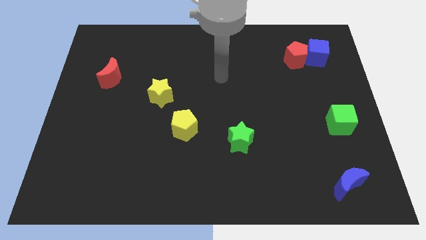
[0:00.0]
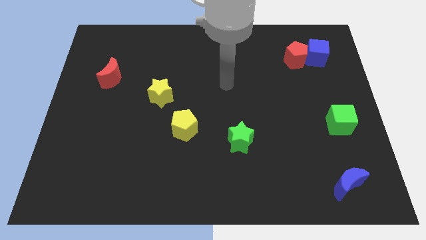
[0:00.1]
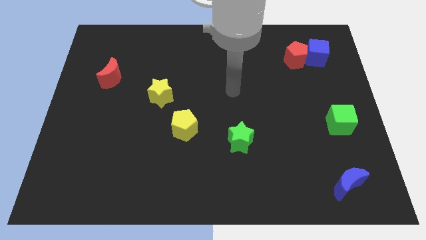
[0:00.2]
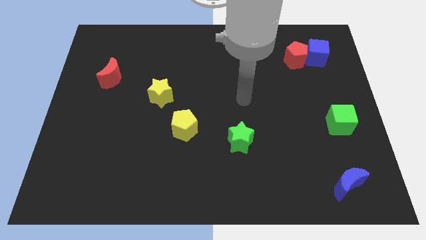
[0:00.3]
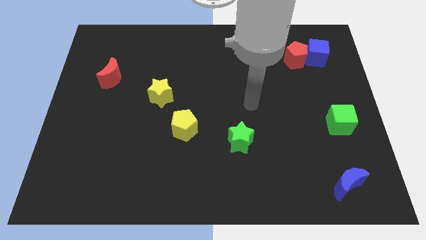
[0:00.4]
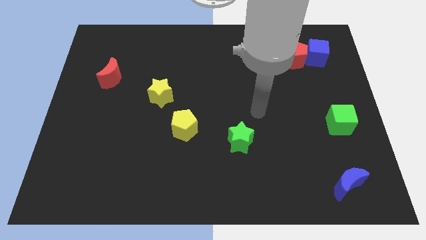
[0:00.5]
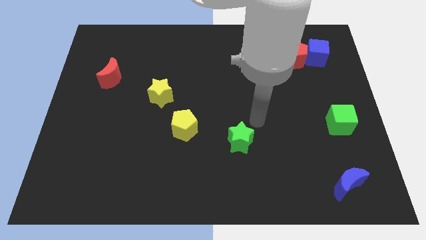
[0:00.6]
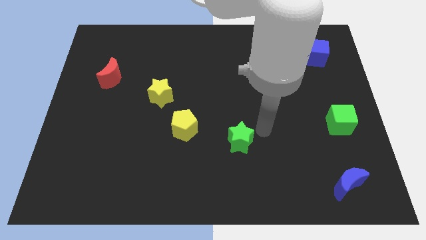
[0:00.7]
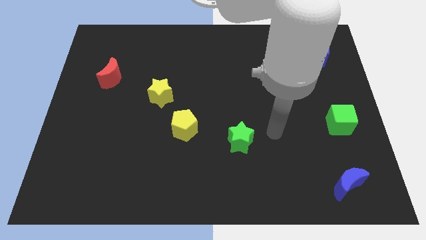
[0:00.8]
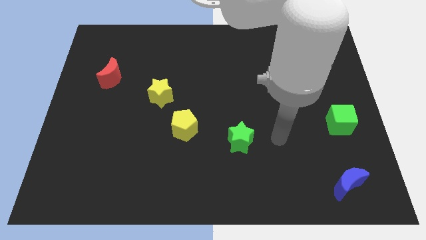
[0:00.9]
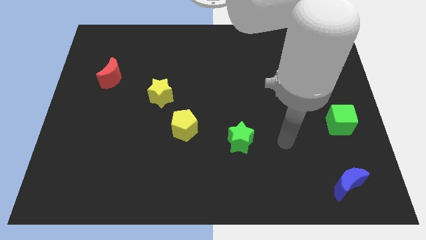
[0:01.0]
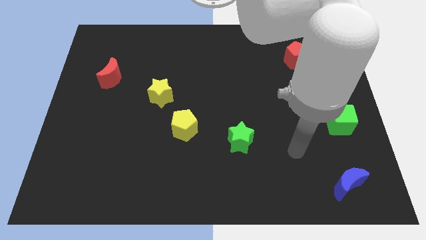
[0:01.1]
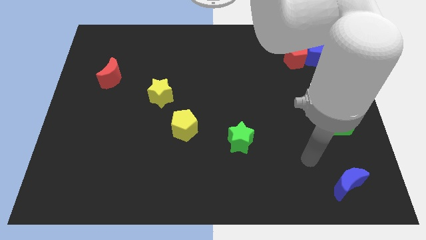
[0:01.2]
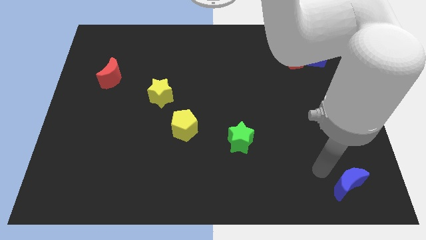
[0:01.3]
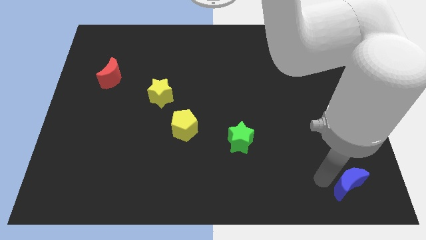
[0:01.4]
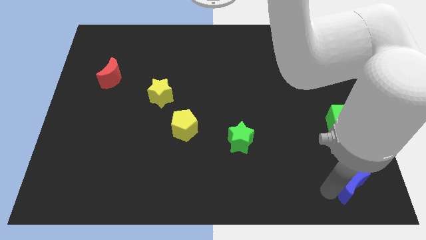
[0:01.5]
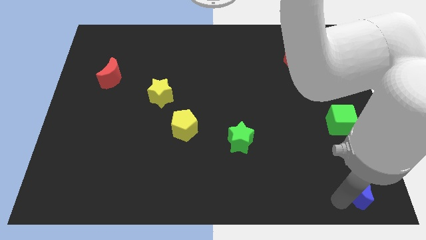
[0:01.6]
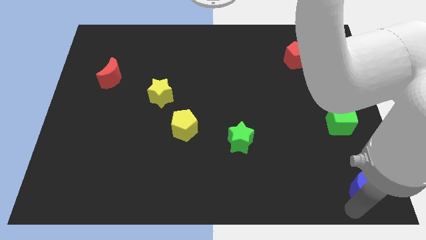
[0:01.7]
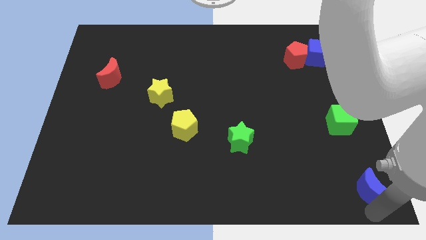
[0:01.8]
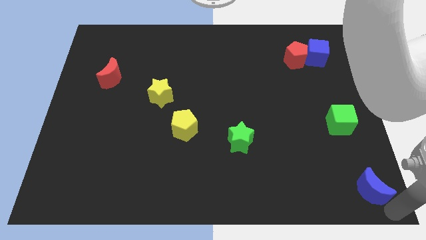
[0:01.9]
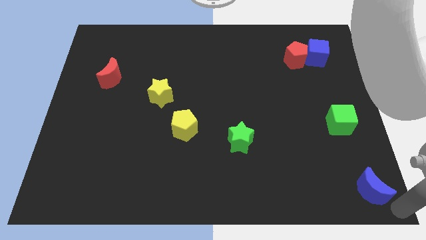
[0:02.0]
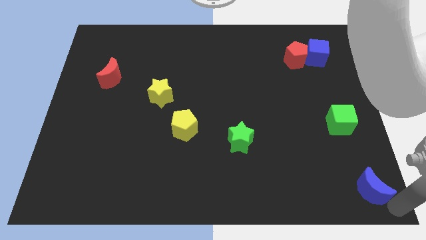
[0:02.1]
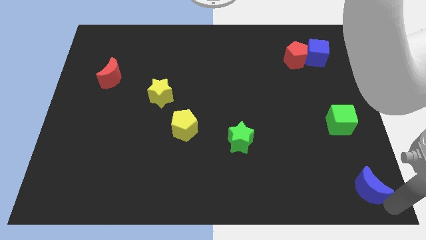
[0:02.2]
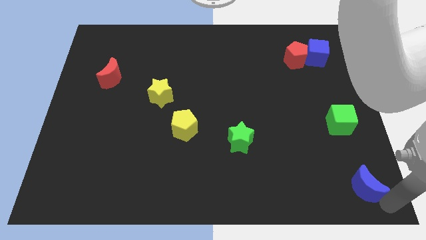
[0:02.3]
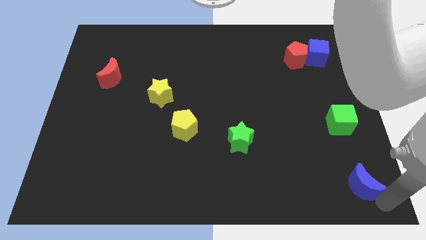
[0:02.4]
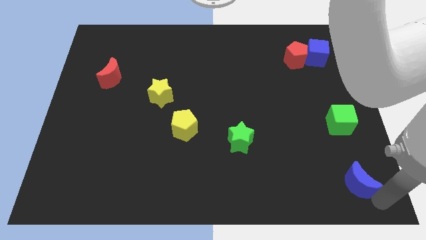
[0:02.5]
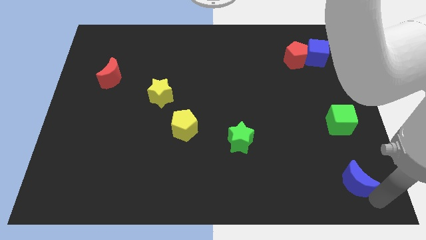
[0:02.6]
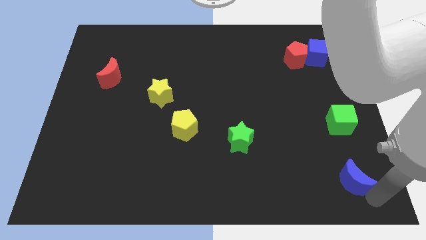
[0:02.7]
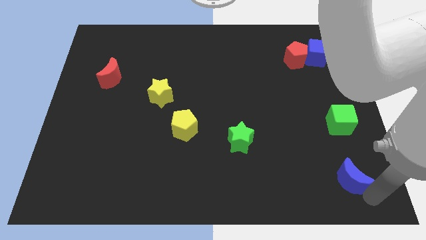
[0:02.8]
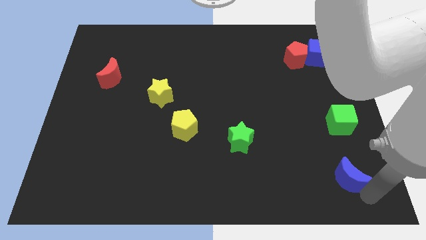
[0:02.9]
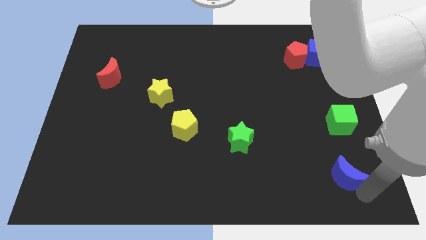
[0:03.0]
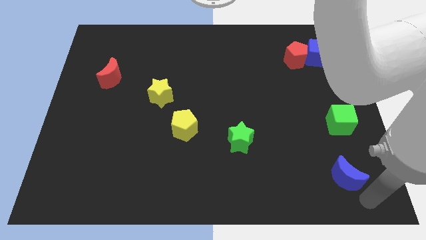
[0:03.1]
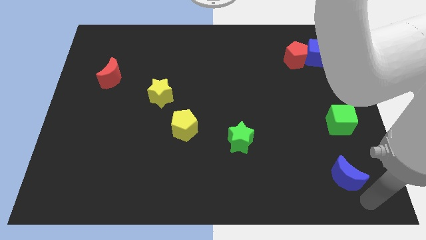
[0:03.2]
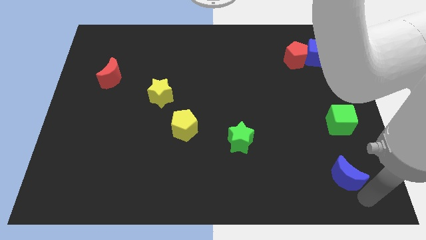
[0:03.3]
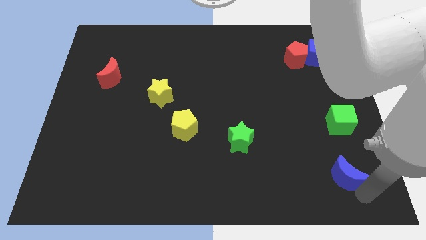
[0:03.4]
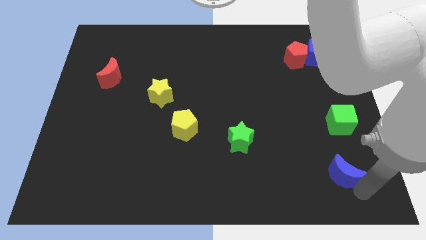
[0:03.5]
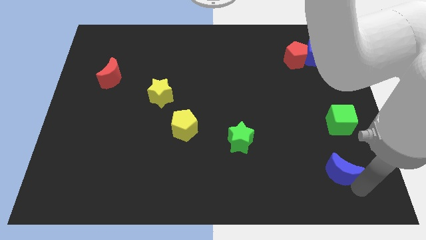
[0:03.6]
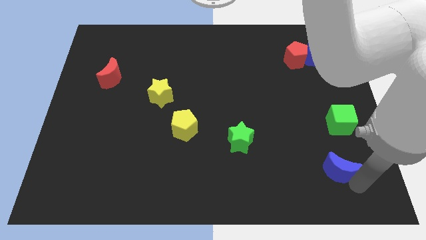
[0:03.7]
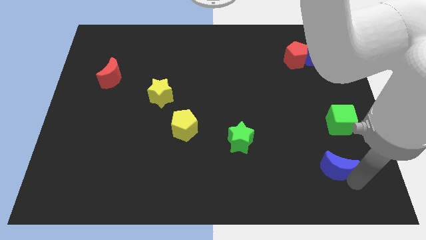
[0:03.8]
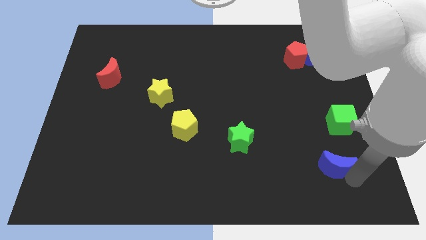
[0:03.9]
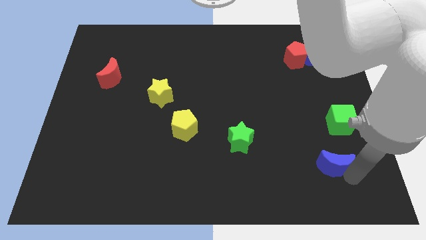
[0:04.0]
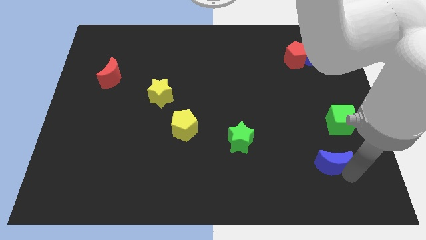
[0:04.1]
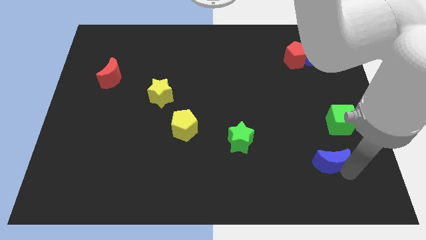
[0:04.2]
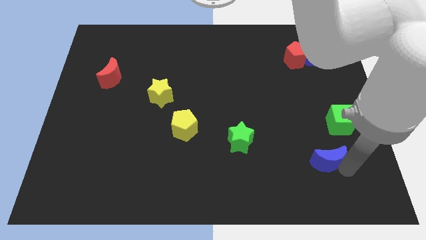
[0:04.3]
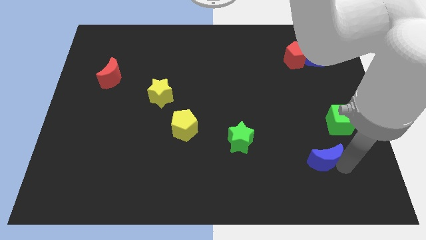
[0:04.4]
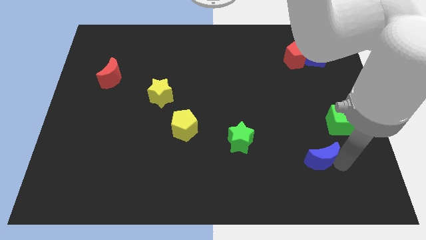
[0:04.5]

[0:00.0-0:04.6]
push the blue moon up and to the left diagonally slightly

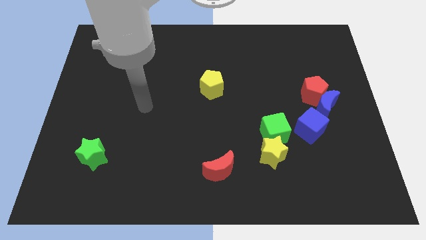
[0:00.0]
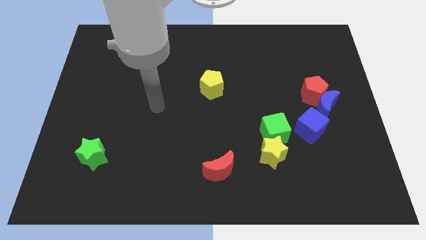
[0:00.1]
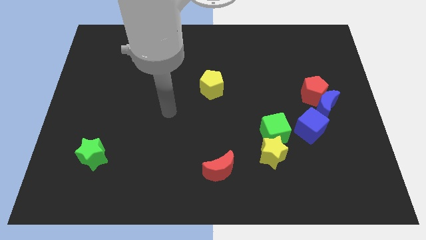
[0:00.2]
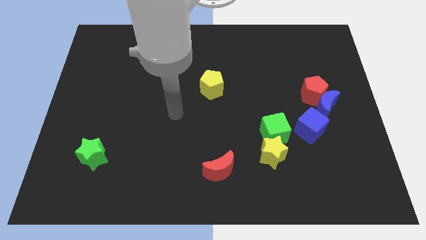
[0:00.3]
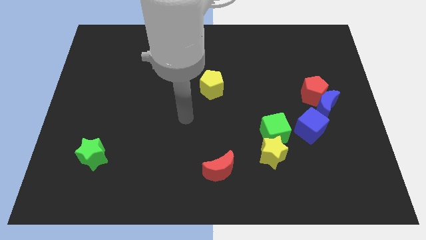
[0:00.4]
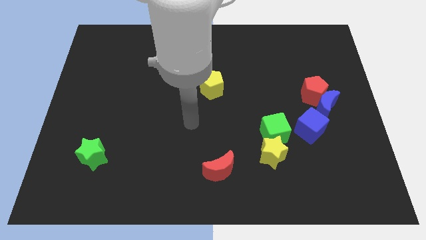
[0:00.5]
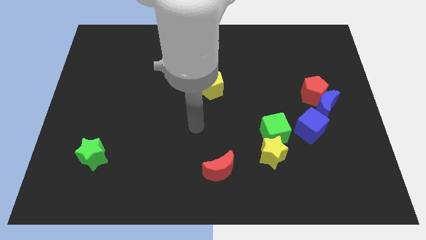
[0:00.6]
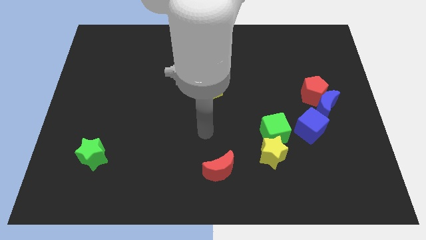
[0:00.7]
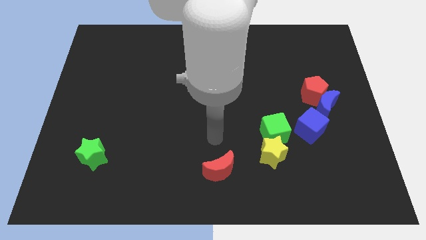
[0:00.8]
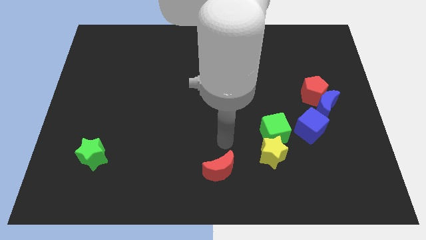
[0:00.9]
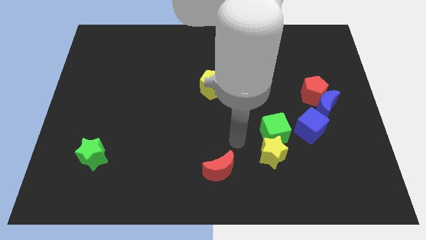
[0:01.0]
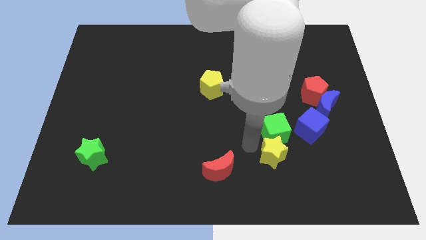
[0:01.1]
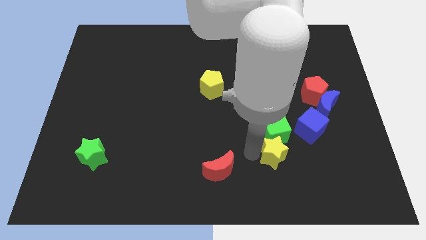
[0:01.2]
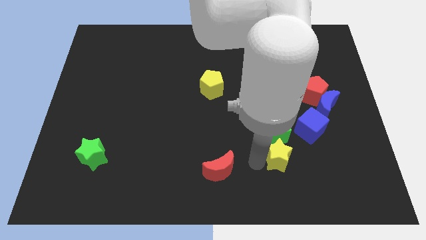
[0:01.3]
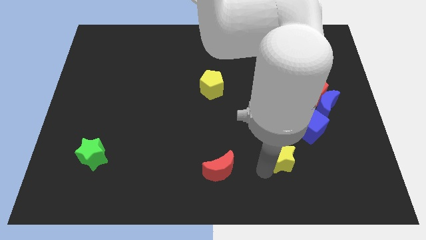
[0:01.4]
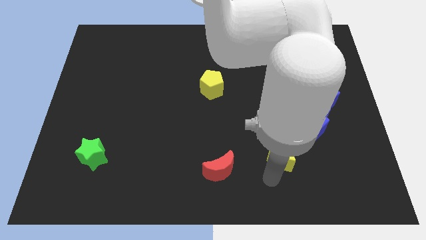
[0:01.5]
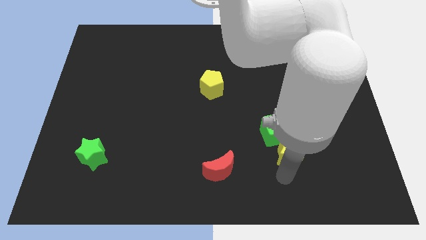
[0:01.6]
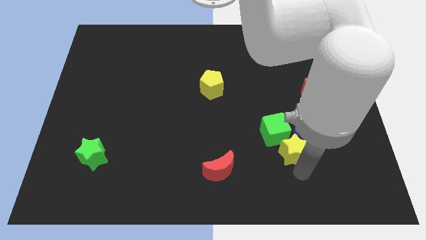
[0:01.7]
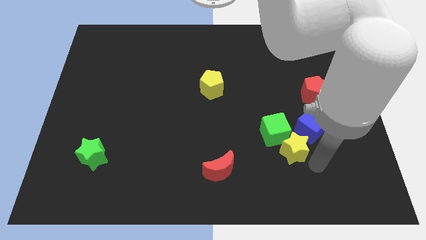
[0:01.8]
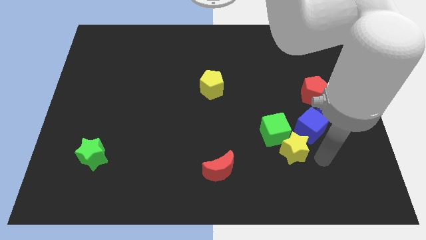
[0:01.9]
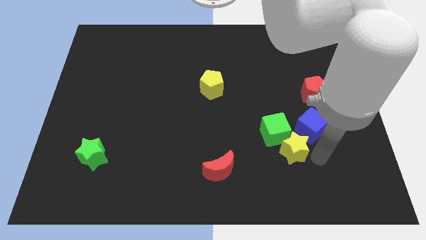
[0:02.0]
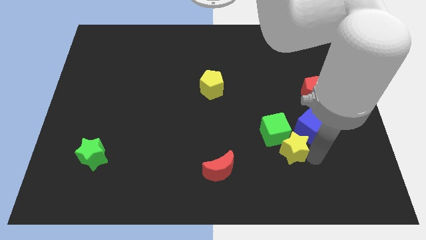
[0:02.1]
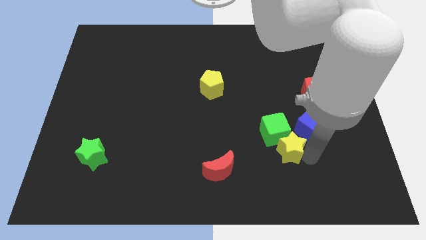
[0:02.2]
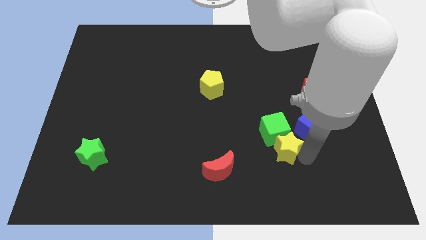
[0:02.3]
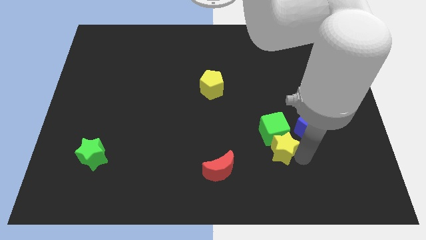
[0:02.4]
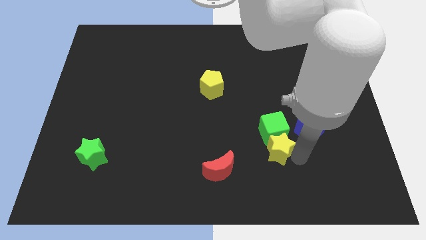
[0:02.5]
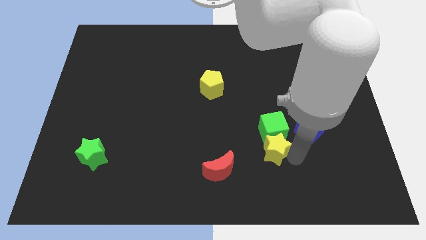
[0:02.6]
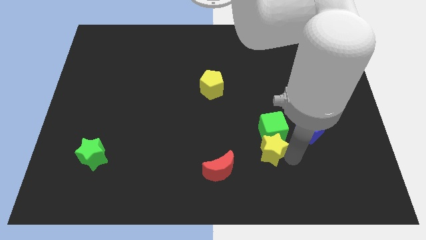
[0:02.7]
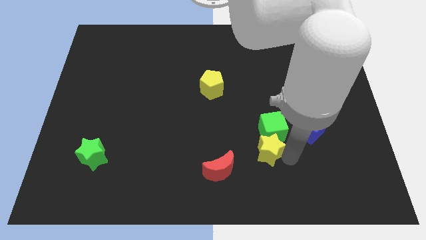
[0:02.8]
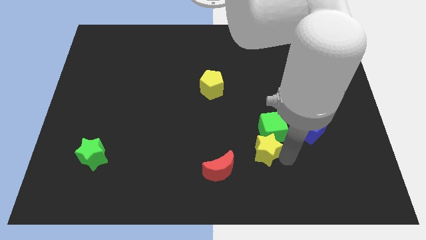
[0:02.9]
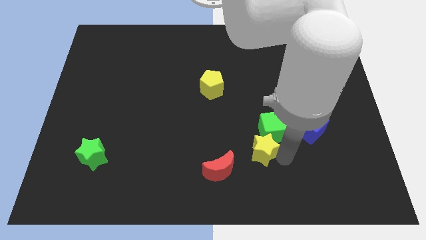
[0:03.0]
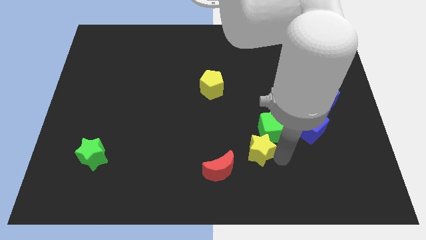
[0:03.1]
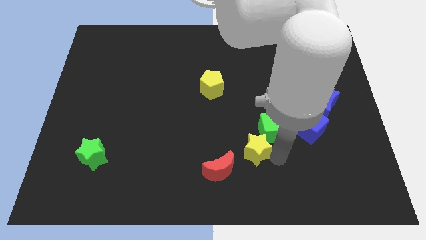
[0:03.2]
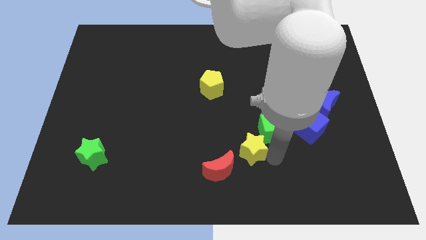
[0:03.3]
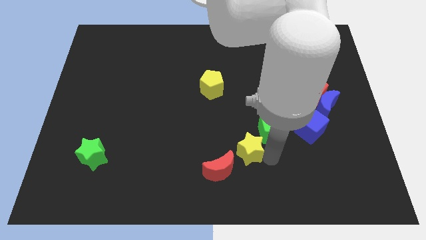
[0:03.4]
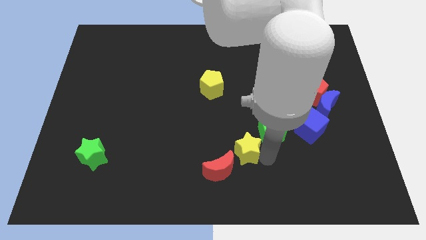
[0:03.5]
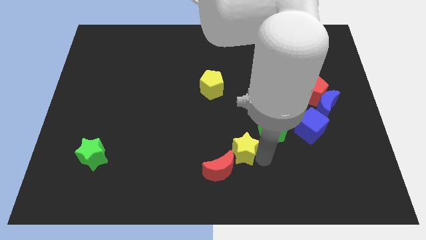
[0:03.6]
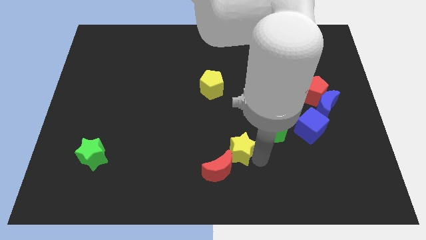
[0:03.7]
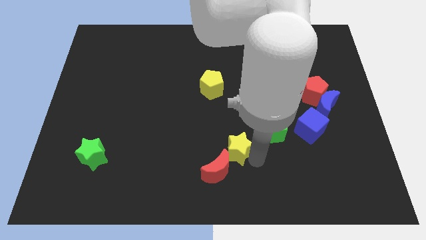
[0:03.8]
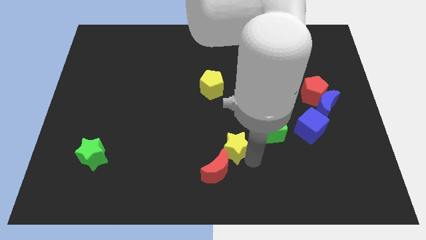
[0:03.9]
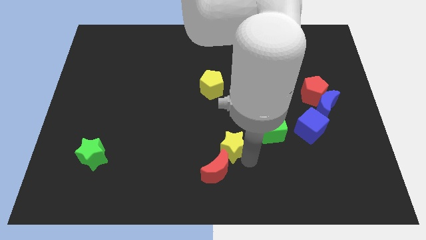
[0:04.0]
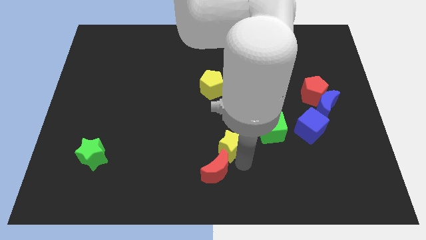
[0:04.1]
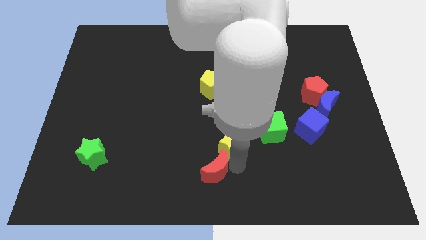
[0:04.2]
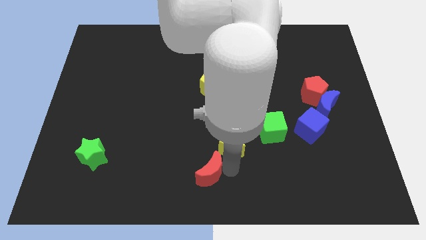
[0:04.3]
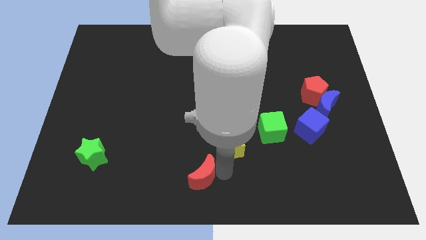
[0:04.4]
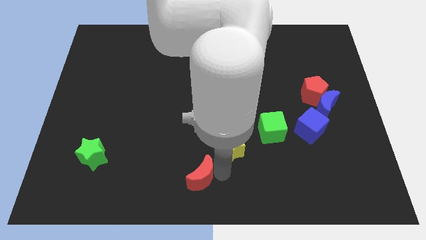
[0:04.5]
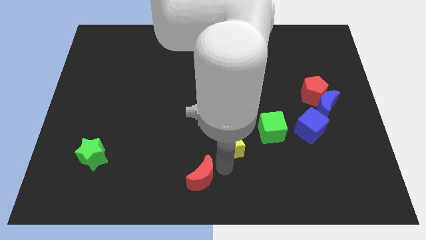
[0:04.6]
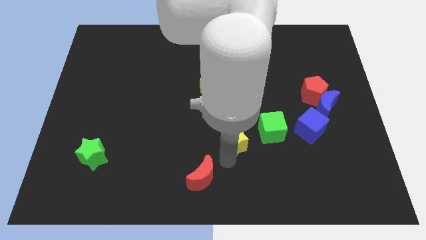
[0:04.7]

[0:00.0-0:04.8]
slide the yellow star upwards and left a bit
